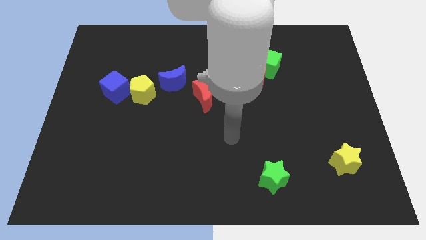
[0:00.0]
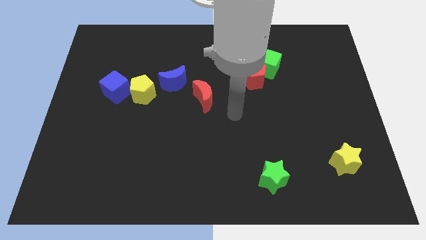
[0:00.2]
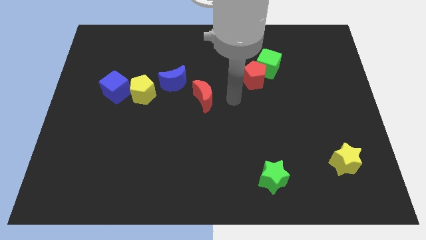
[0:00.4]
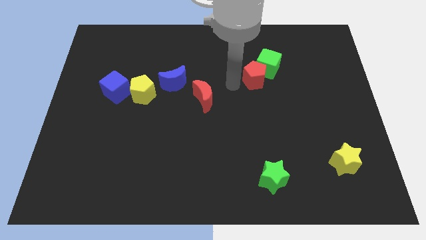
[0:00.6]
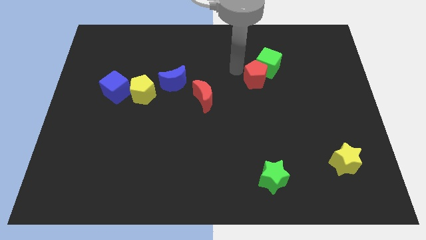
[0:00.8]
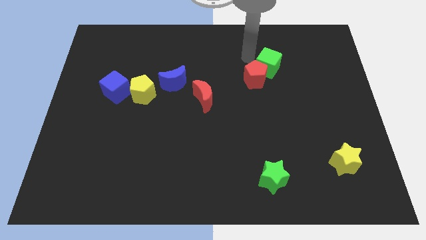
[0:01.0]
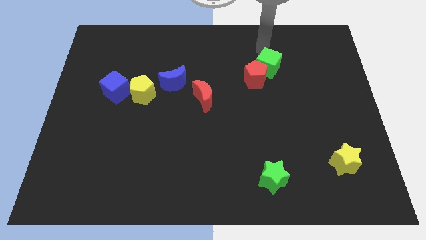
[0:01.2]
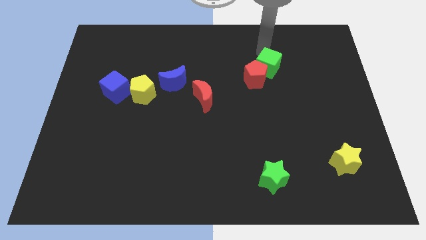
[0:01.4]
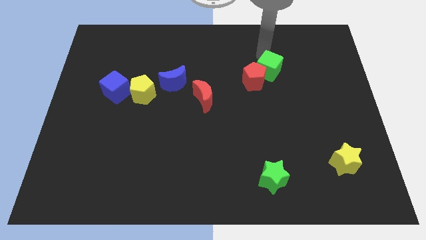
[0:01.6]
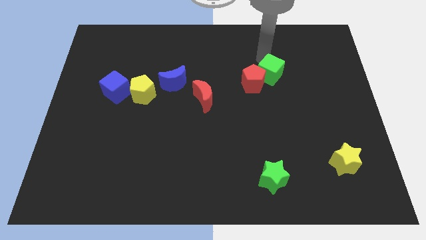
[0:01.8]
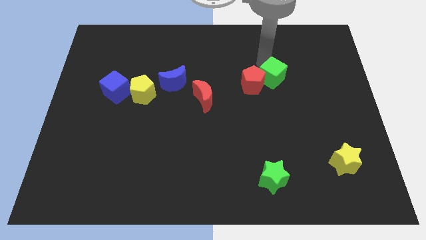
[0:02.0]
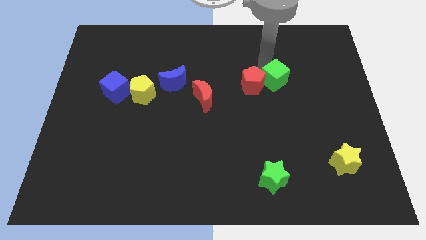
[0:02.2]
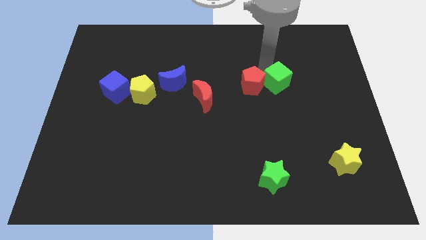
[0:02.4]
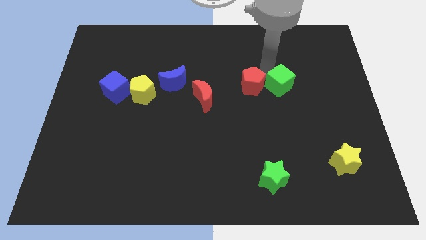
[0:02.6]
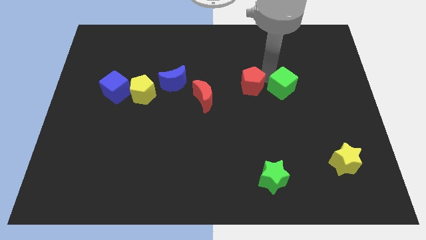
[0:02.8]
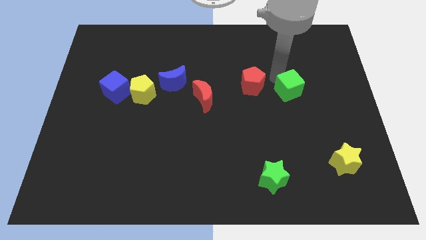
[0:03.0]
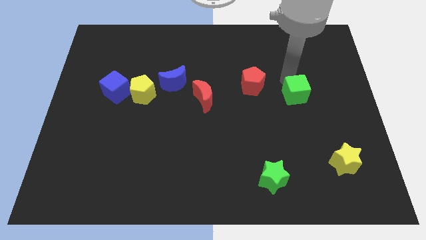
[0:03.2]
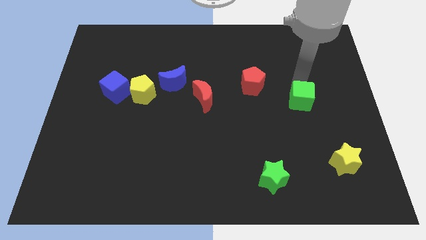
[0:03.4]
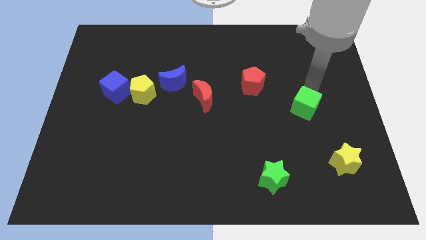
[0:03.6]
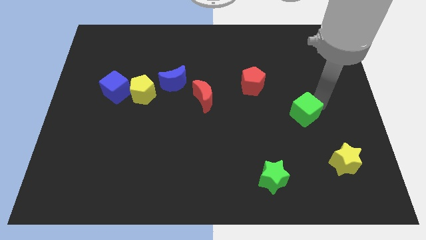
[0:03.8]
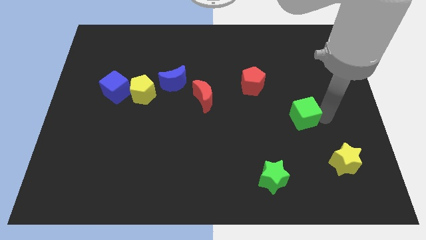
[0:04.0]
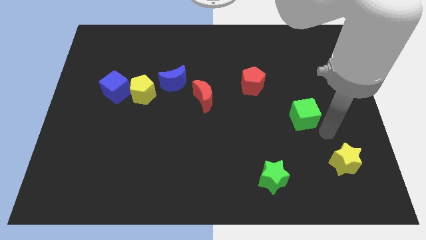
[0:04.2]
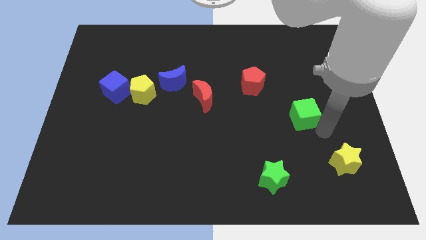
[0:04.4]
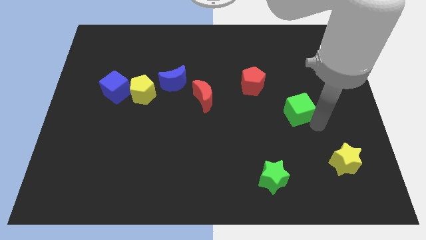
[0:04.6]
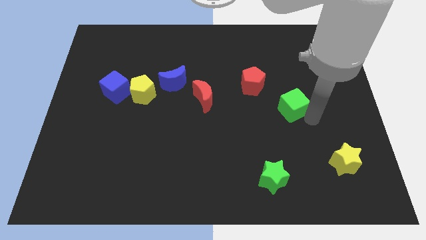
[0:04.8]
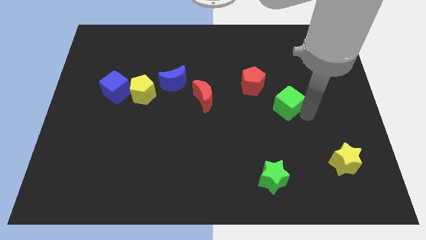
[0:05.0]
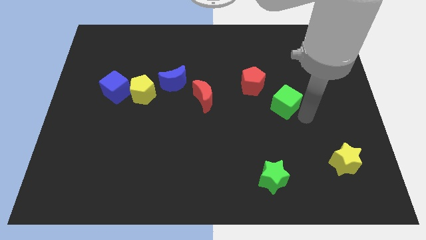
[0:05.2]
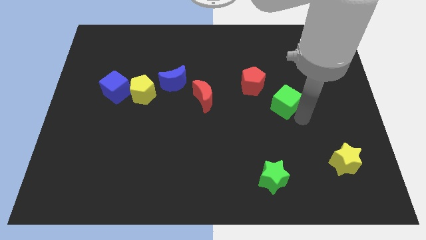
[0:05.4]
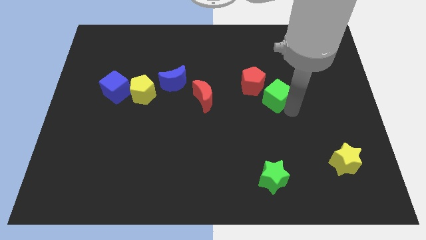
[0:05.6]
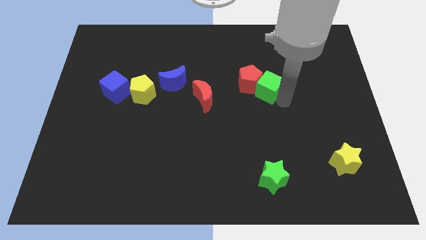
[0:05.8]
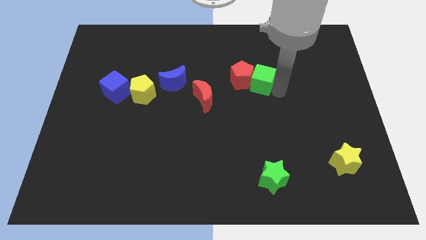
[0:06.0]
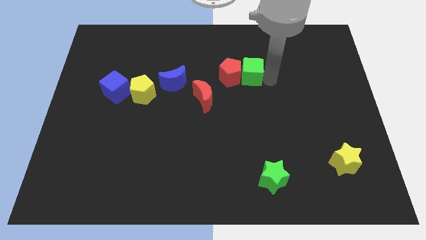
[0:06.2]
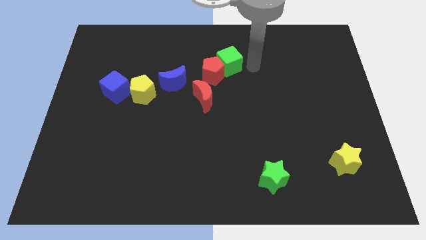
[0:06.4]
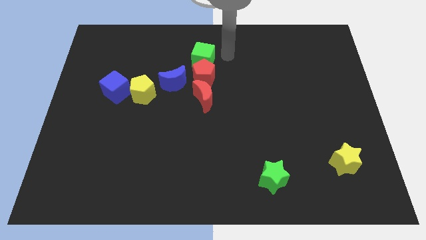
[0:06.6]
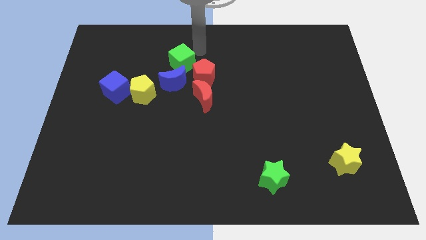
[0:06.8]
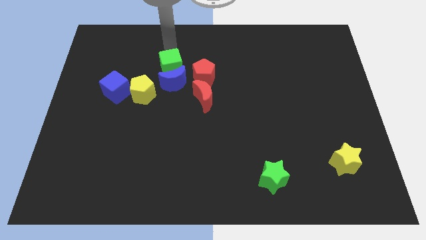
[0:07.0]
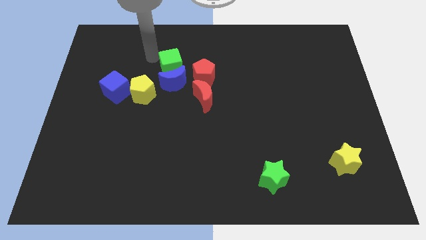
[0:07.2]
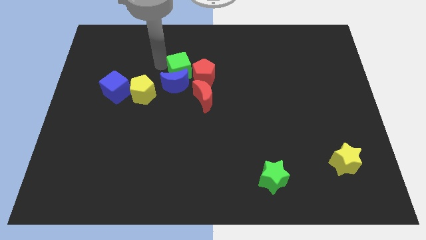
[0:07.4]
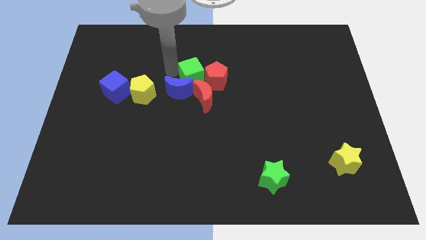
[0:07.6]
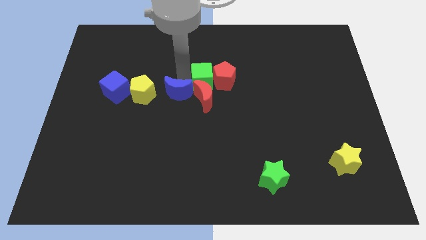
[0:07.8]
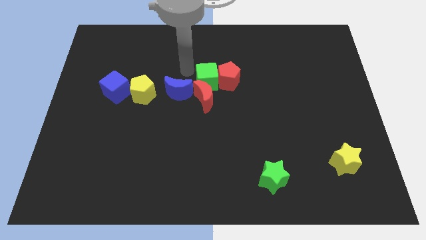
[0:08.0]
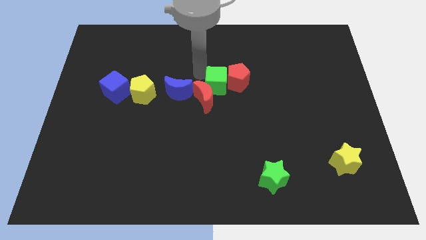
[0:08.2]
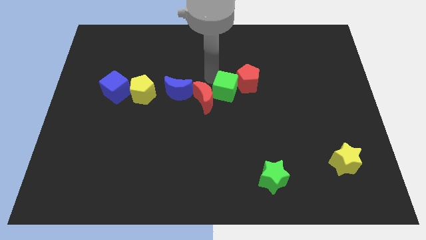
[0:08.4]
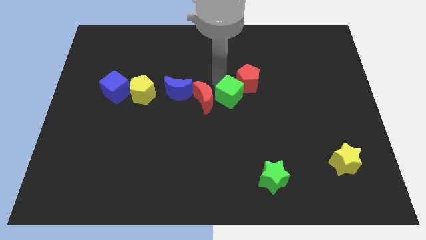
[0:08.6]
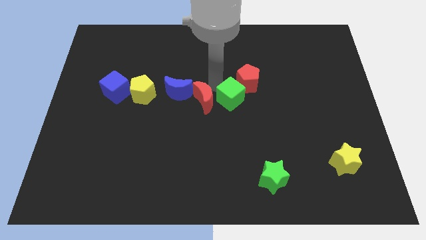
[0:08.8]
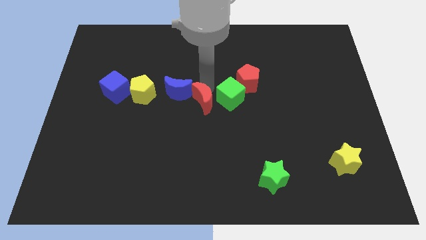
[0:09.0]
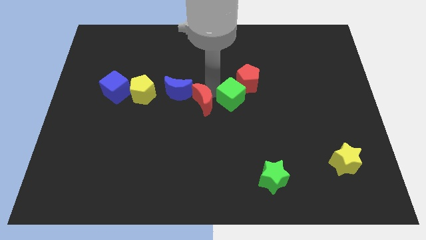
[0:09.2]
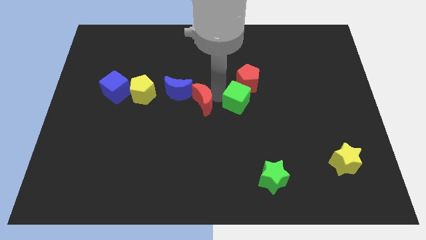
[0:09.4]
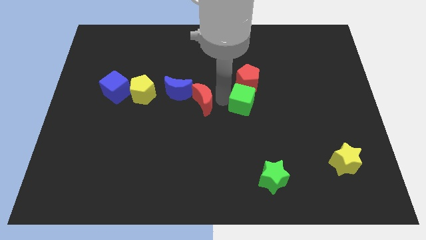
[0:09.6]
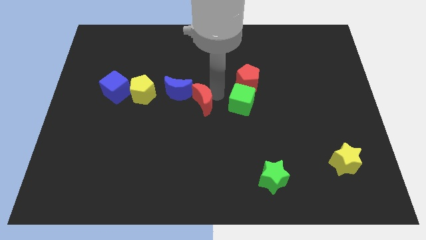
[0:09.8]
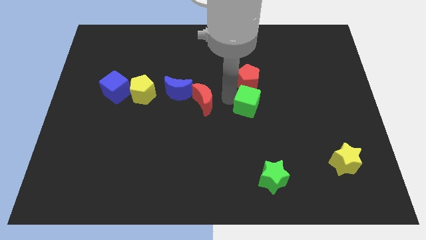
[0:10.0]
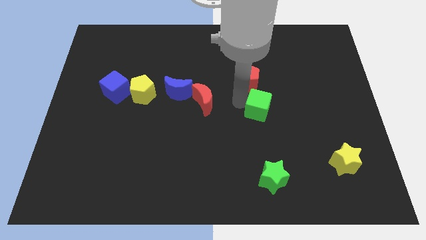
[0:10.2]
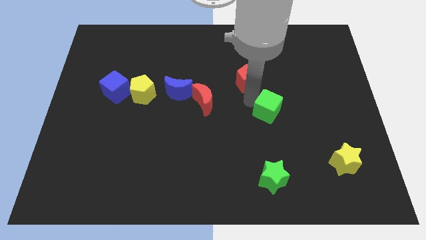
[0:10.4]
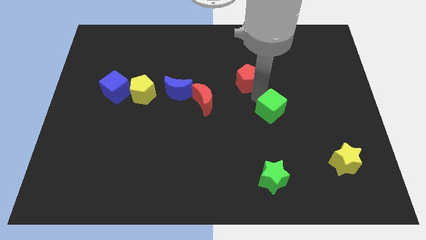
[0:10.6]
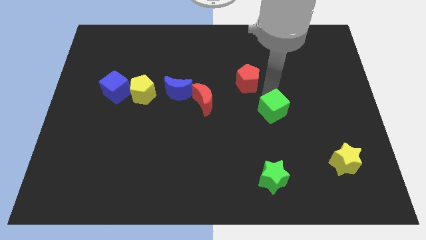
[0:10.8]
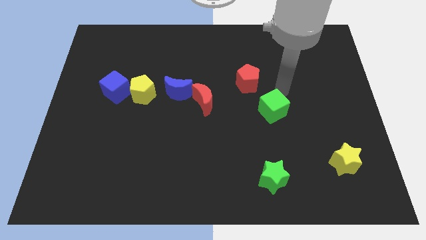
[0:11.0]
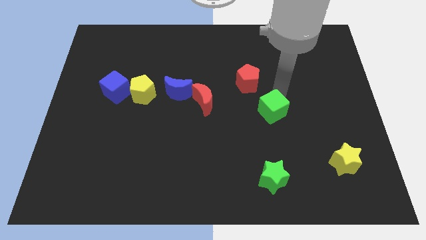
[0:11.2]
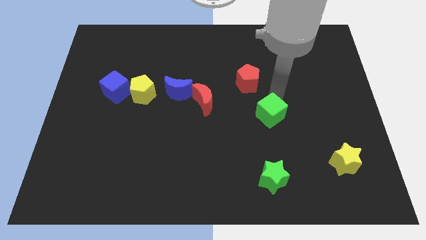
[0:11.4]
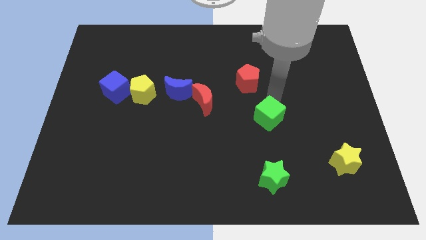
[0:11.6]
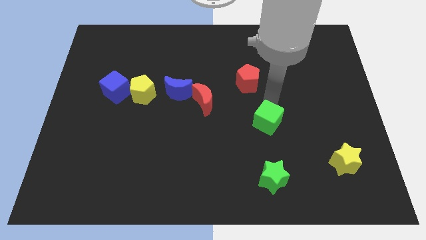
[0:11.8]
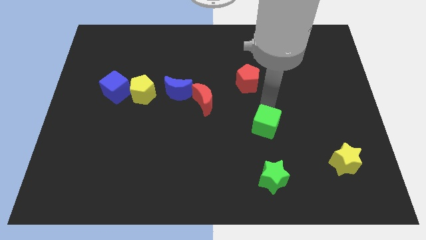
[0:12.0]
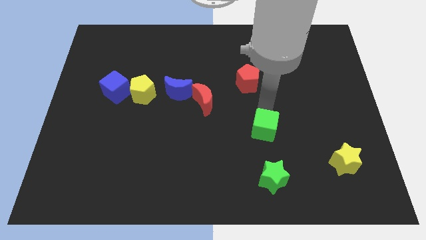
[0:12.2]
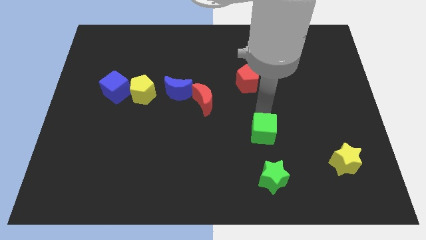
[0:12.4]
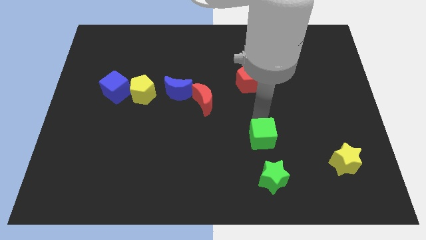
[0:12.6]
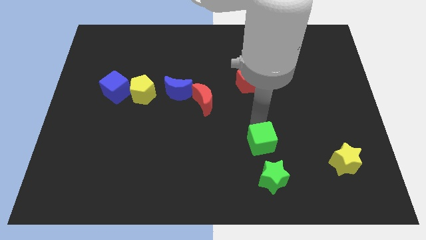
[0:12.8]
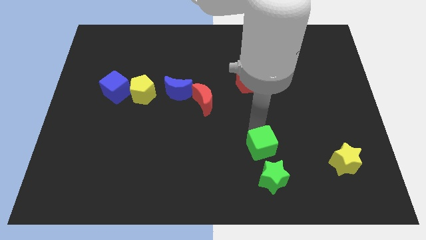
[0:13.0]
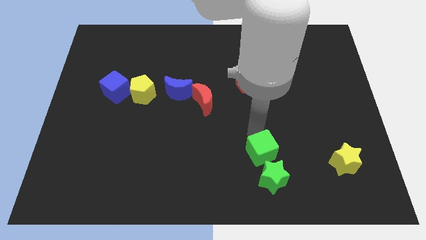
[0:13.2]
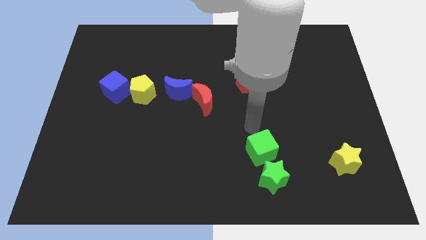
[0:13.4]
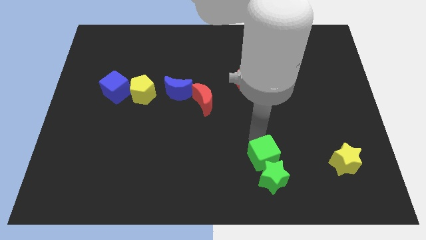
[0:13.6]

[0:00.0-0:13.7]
move the green cube to the green star
